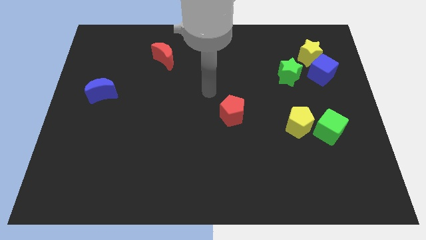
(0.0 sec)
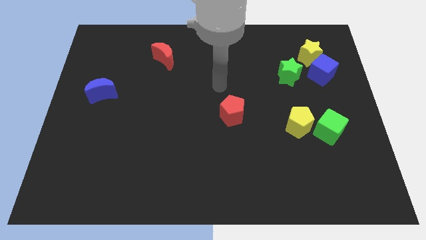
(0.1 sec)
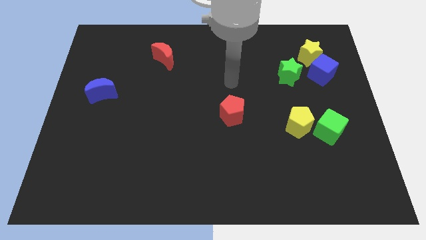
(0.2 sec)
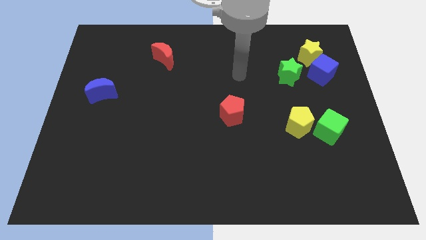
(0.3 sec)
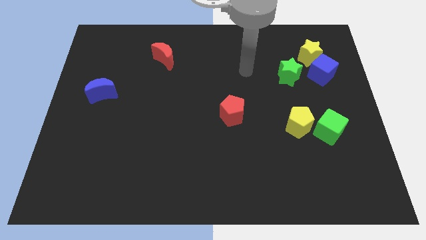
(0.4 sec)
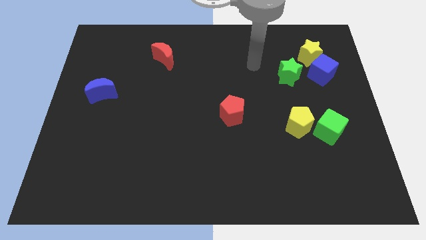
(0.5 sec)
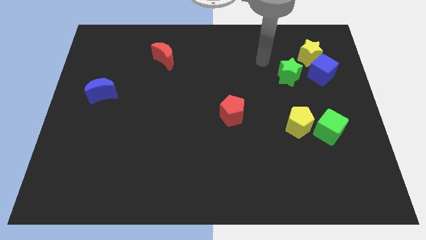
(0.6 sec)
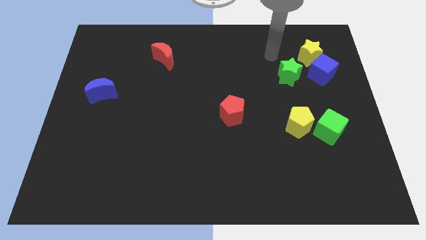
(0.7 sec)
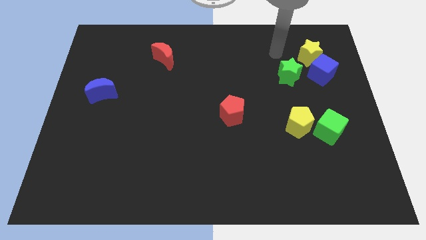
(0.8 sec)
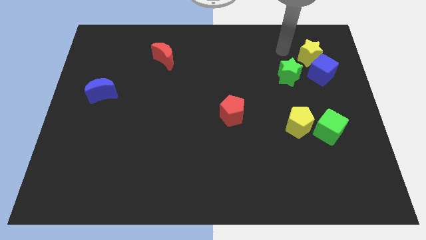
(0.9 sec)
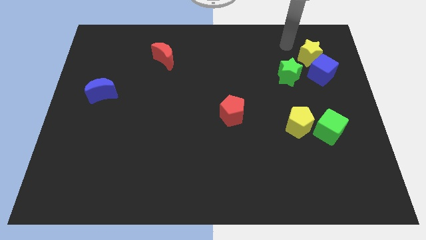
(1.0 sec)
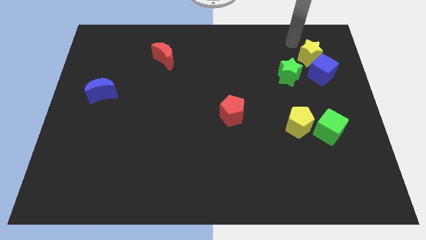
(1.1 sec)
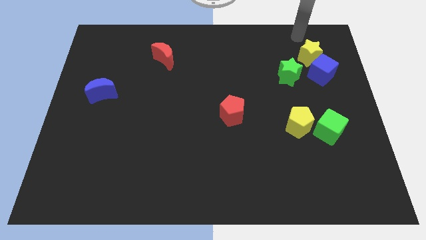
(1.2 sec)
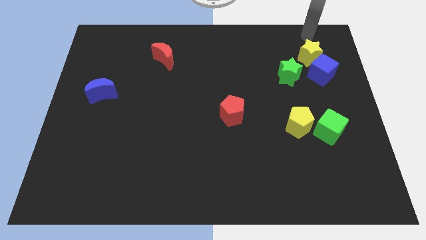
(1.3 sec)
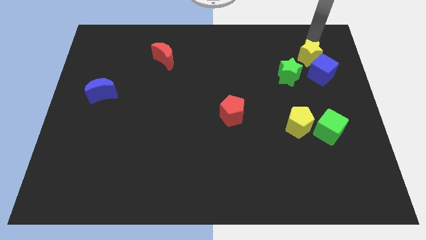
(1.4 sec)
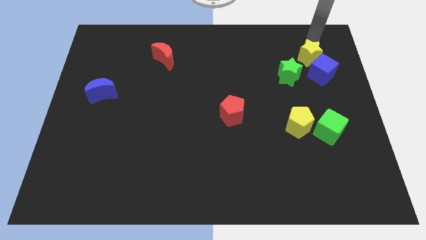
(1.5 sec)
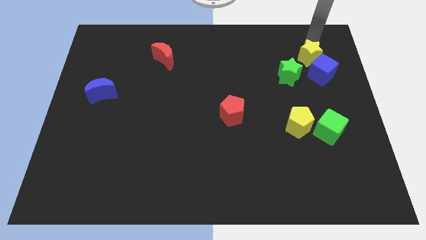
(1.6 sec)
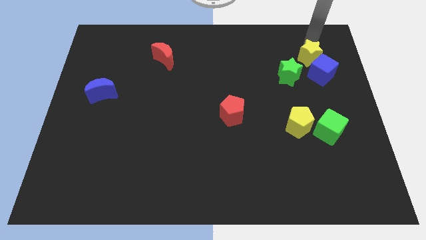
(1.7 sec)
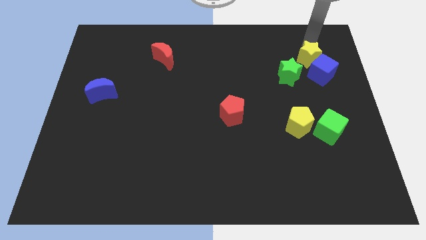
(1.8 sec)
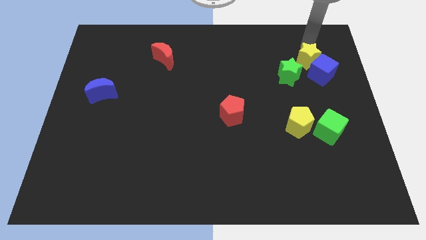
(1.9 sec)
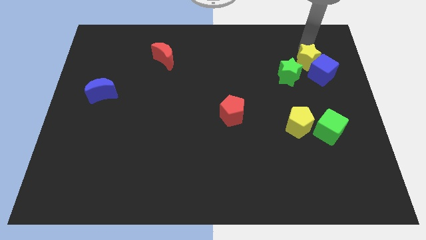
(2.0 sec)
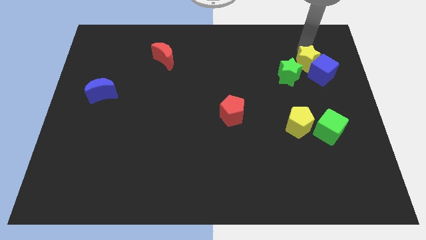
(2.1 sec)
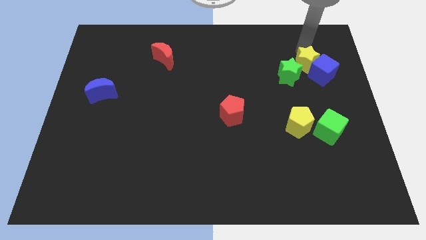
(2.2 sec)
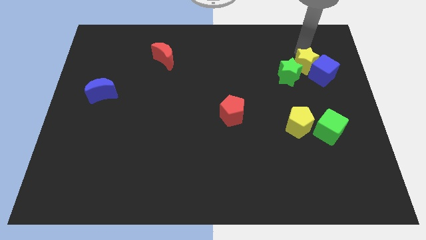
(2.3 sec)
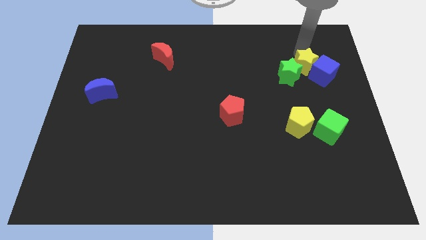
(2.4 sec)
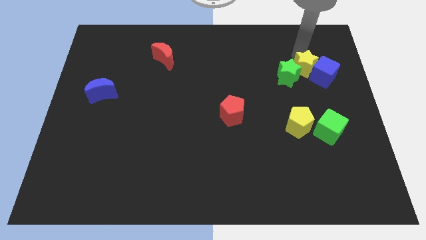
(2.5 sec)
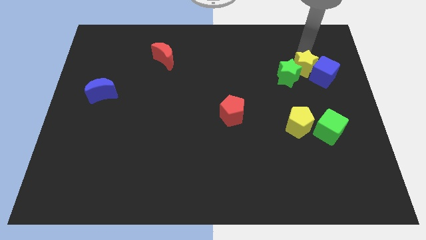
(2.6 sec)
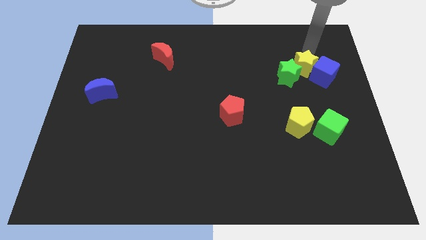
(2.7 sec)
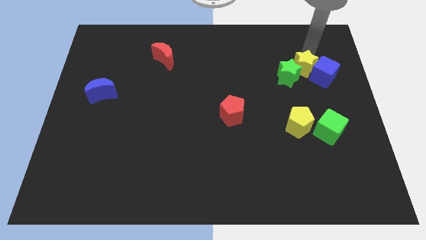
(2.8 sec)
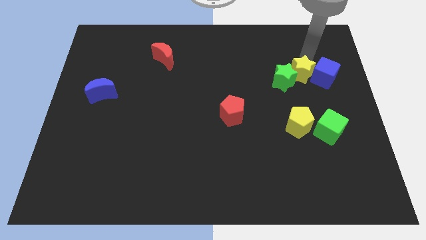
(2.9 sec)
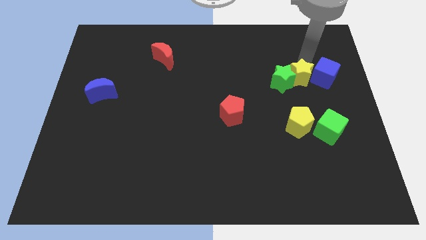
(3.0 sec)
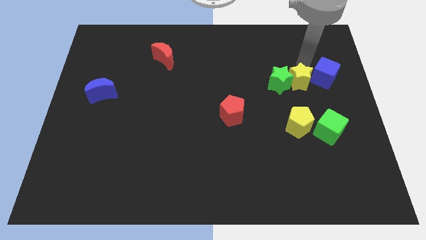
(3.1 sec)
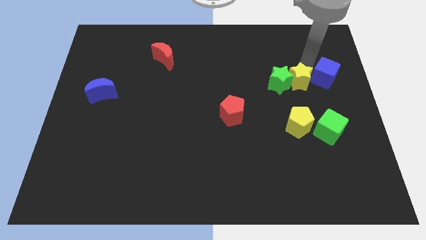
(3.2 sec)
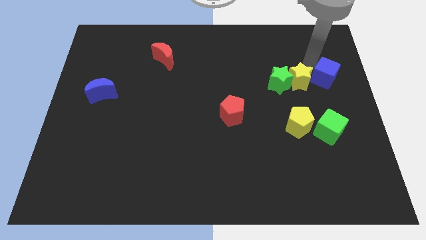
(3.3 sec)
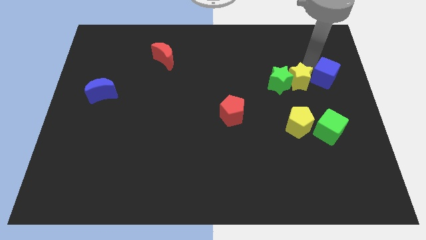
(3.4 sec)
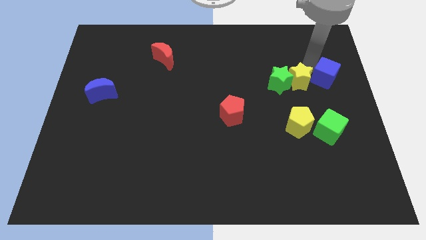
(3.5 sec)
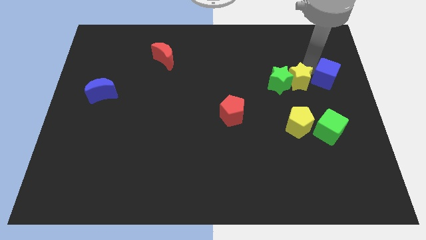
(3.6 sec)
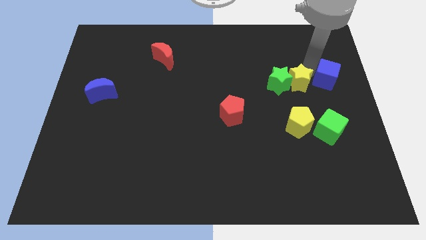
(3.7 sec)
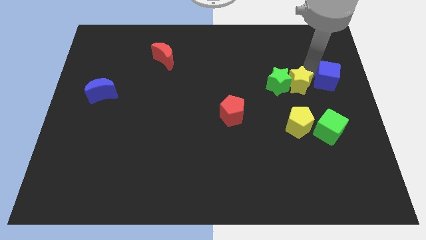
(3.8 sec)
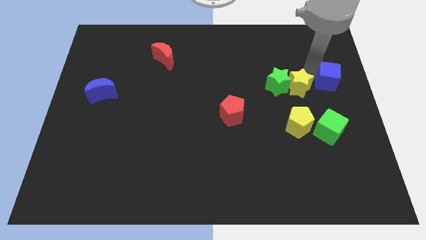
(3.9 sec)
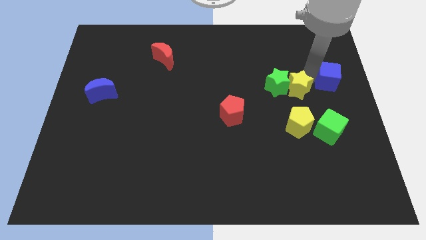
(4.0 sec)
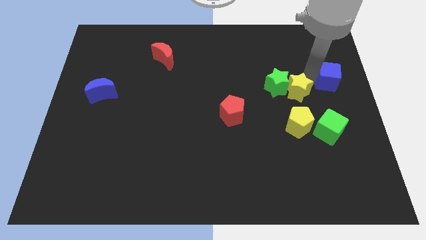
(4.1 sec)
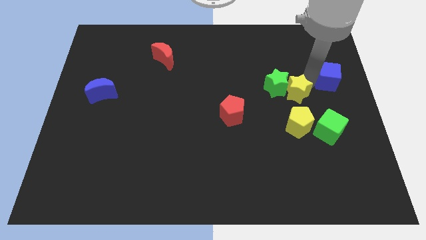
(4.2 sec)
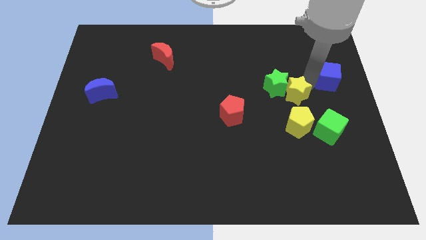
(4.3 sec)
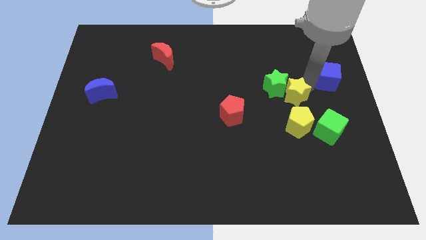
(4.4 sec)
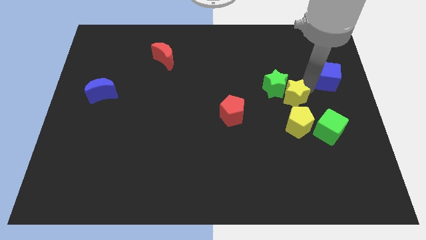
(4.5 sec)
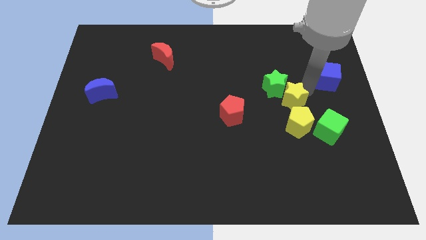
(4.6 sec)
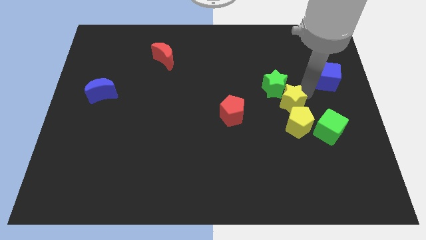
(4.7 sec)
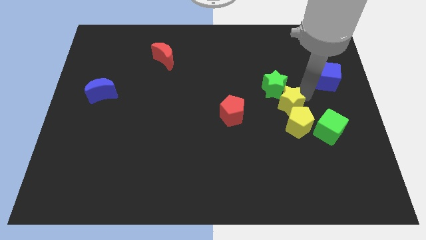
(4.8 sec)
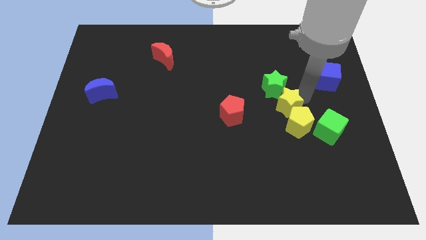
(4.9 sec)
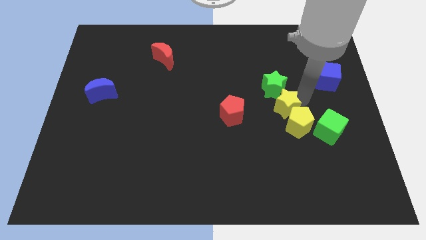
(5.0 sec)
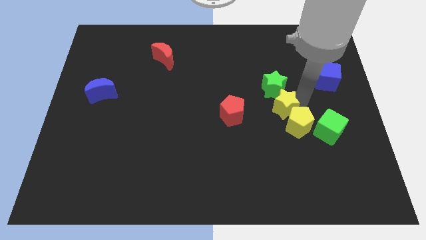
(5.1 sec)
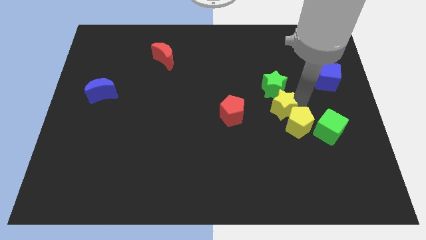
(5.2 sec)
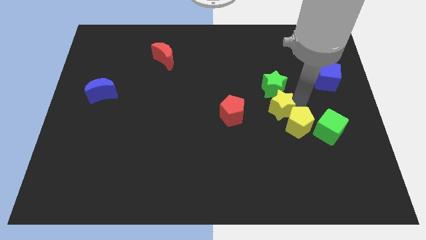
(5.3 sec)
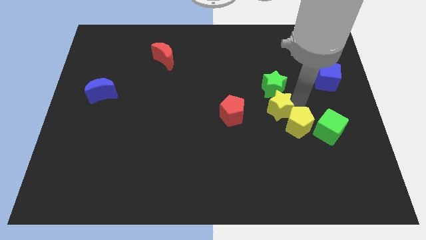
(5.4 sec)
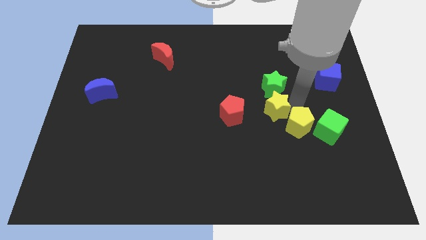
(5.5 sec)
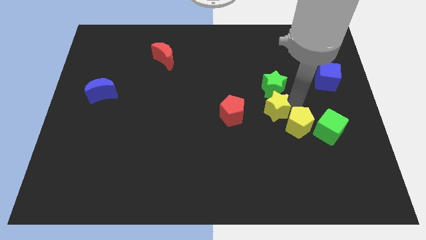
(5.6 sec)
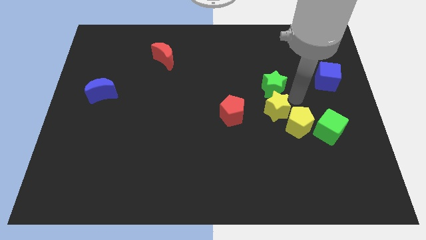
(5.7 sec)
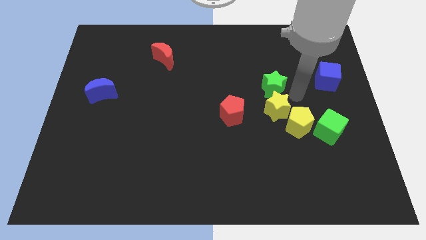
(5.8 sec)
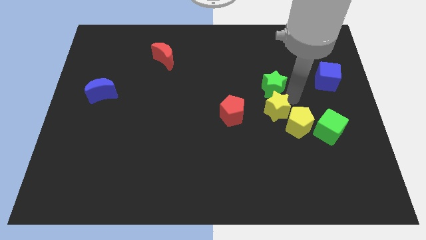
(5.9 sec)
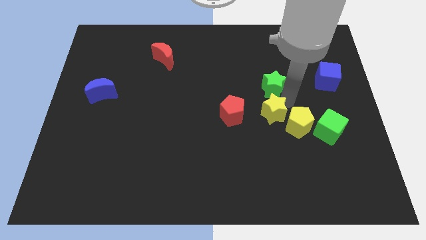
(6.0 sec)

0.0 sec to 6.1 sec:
push the yellow star downwards and then to the left

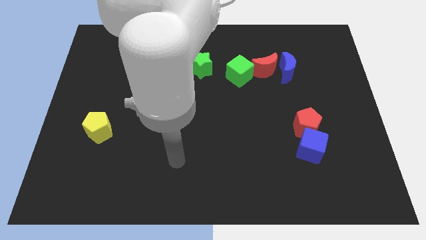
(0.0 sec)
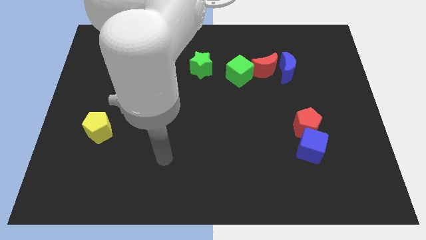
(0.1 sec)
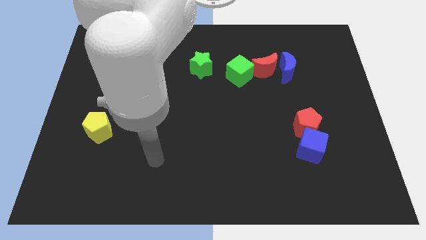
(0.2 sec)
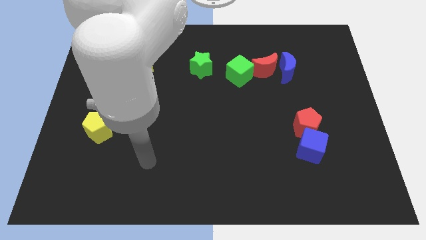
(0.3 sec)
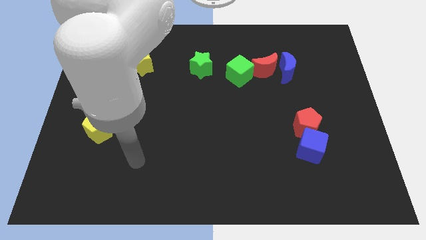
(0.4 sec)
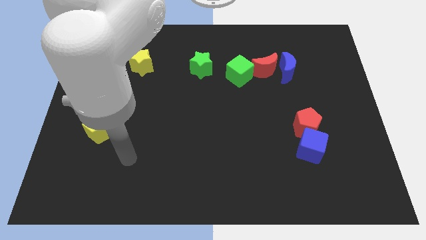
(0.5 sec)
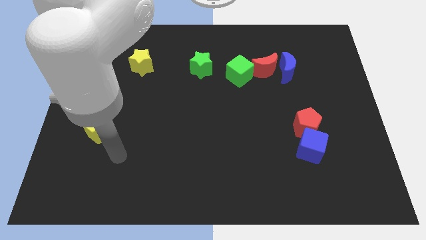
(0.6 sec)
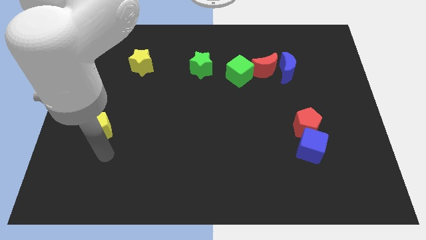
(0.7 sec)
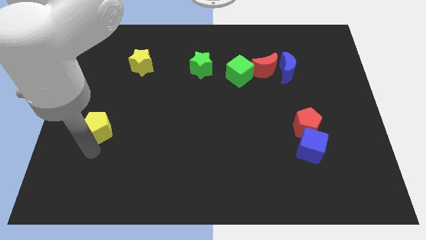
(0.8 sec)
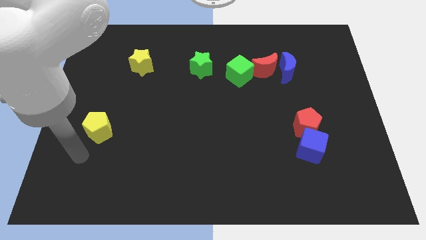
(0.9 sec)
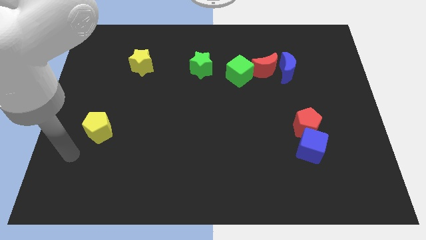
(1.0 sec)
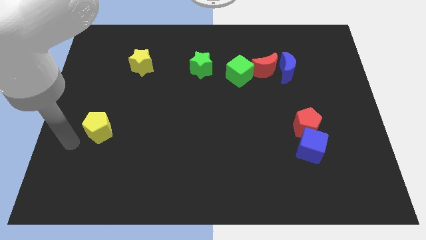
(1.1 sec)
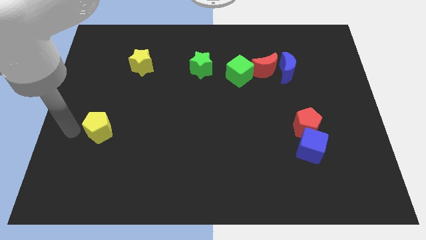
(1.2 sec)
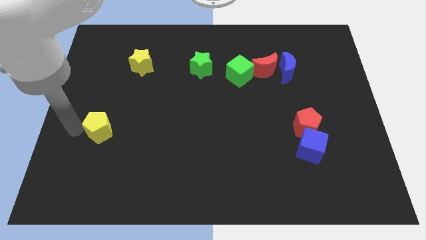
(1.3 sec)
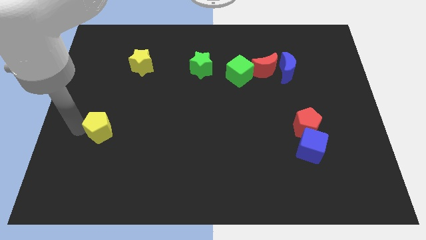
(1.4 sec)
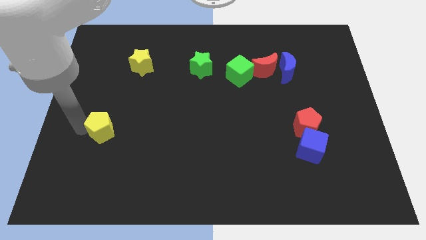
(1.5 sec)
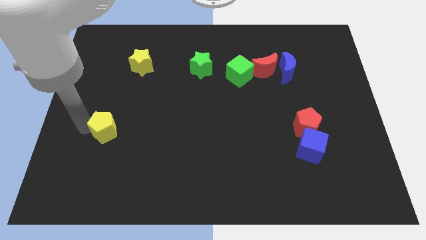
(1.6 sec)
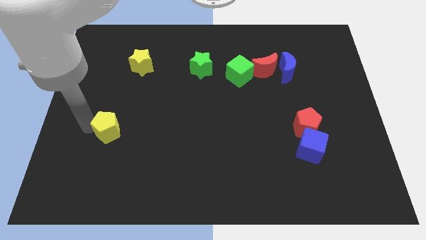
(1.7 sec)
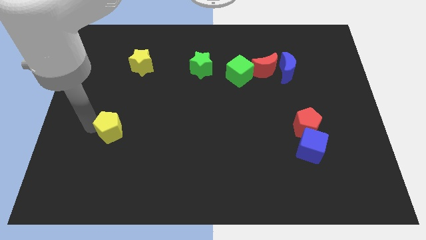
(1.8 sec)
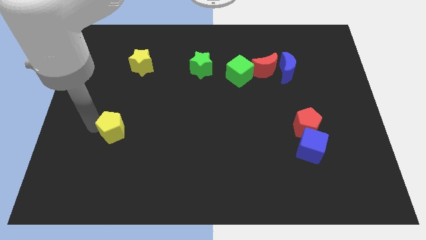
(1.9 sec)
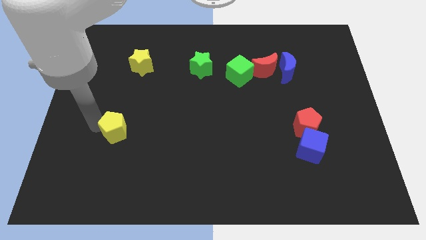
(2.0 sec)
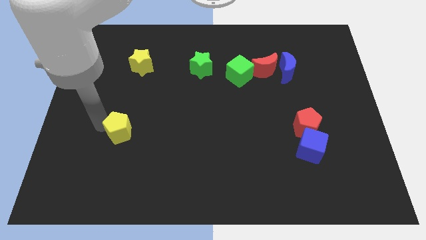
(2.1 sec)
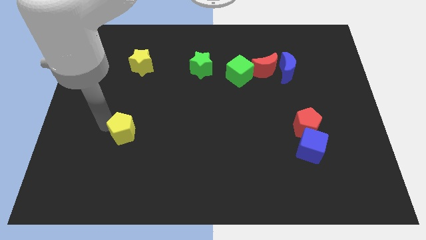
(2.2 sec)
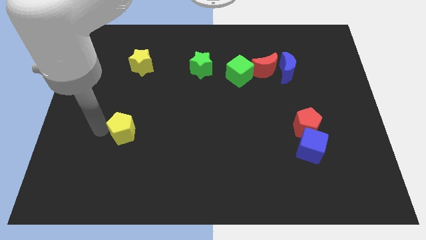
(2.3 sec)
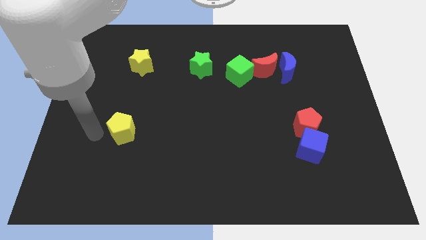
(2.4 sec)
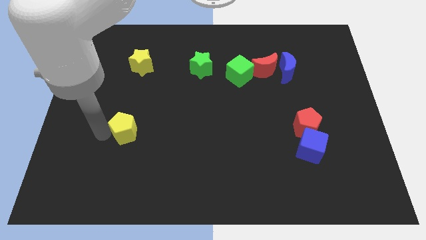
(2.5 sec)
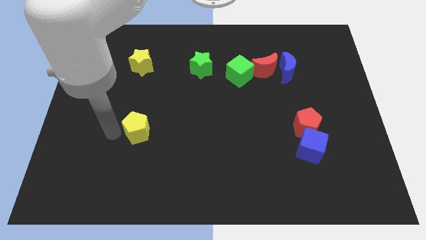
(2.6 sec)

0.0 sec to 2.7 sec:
slightly move the yellow pentagon to the right
